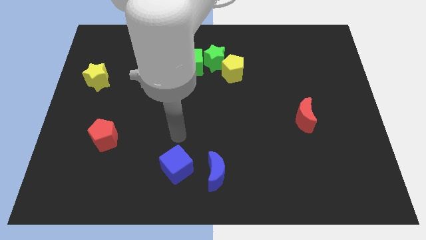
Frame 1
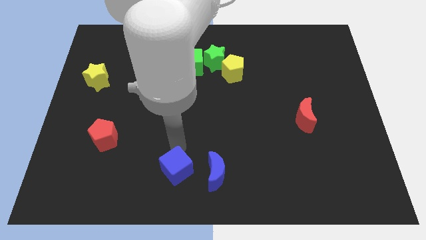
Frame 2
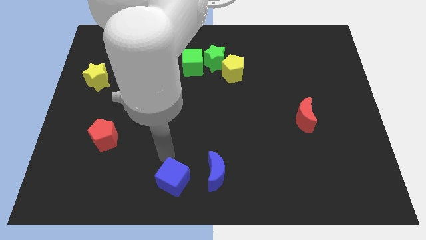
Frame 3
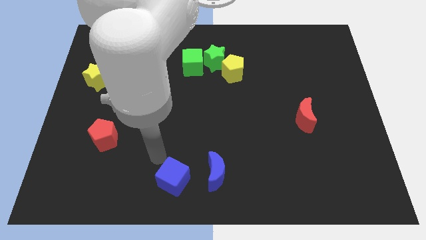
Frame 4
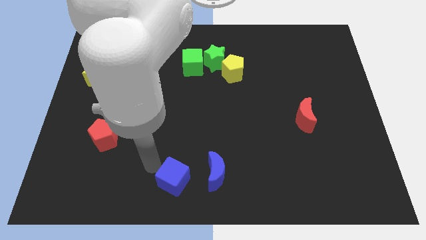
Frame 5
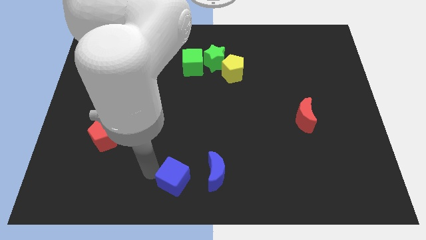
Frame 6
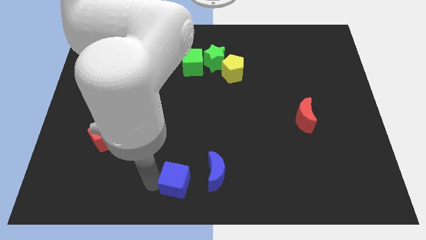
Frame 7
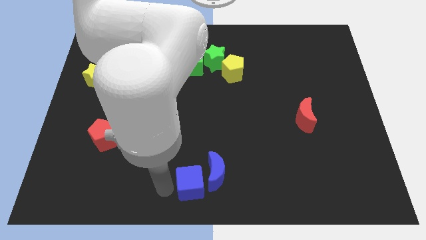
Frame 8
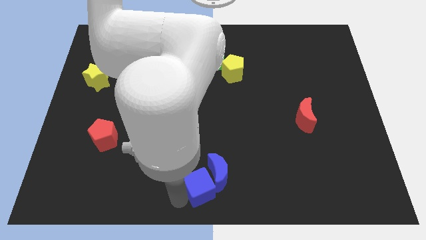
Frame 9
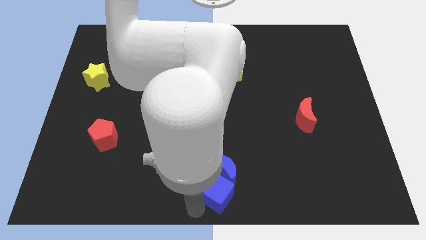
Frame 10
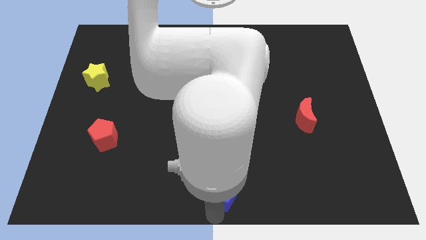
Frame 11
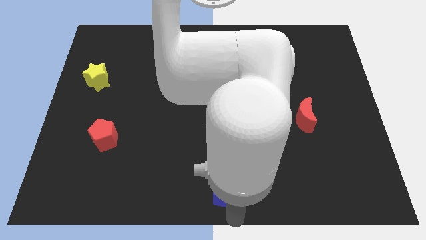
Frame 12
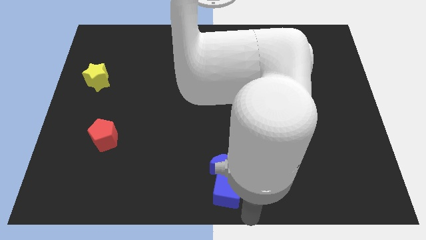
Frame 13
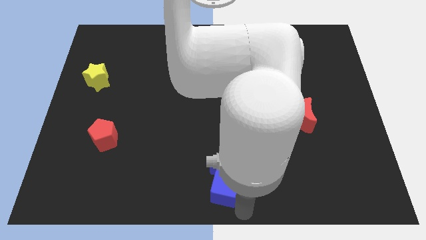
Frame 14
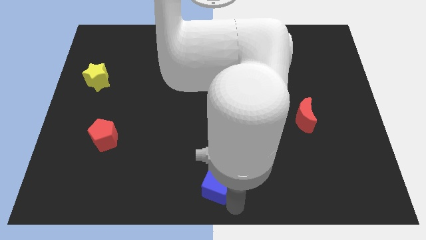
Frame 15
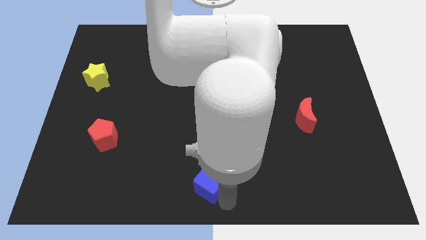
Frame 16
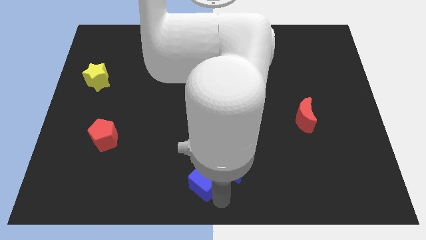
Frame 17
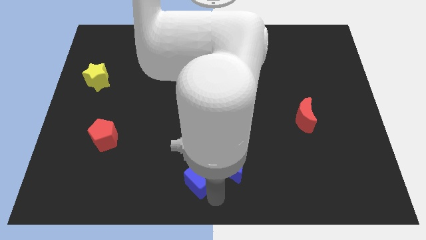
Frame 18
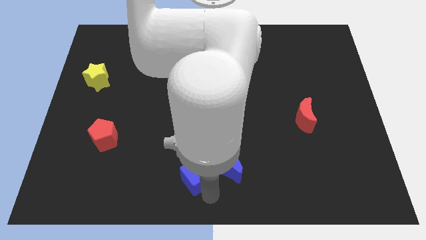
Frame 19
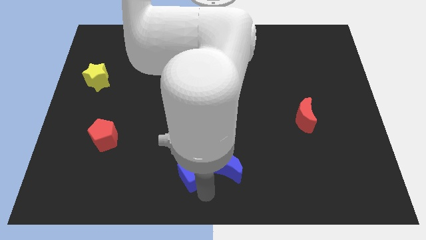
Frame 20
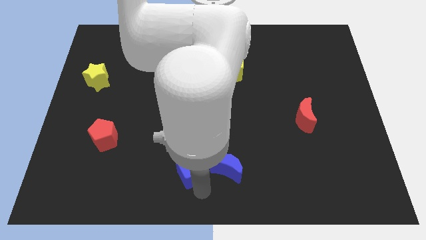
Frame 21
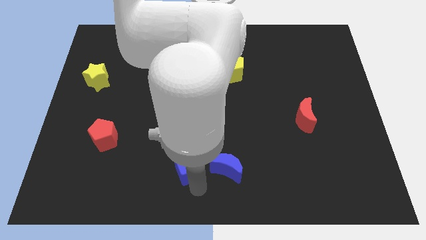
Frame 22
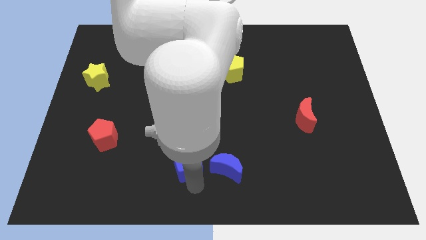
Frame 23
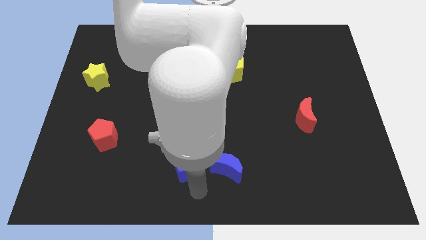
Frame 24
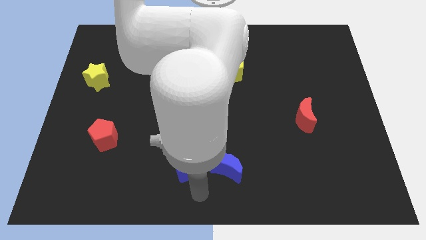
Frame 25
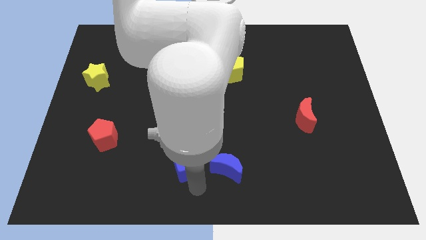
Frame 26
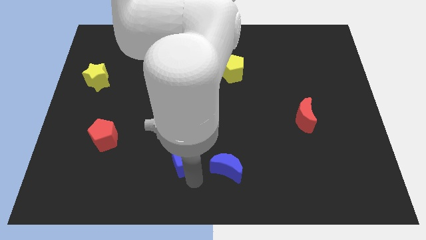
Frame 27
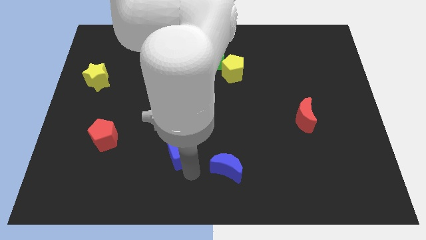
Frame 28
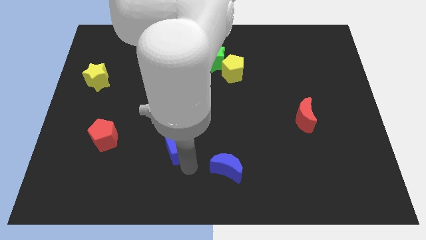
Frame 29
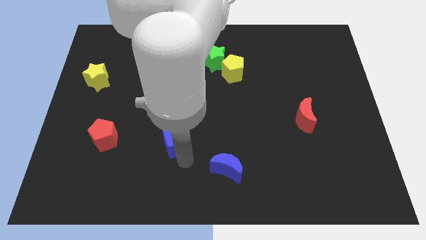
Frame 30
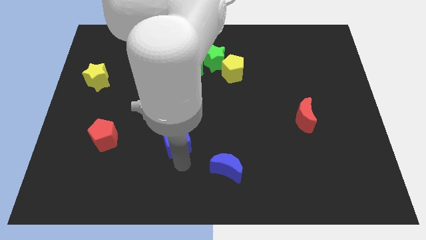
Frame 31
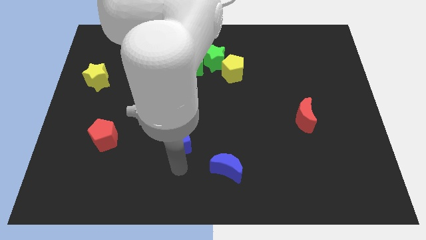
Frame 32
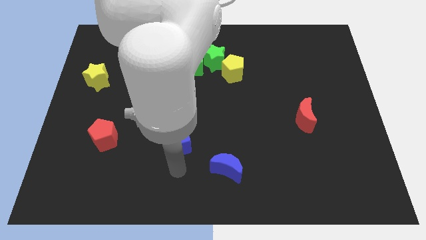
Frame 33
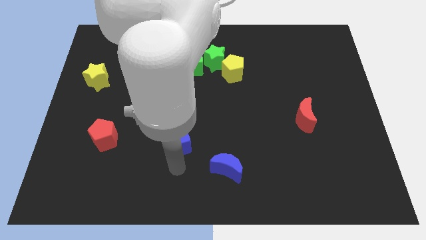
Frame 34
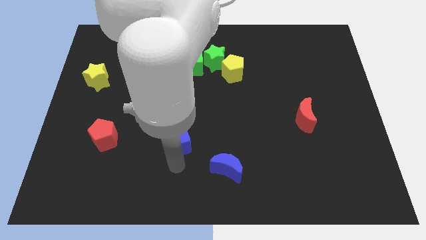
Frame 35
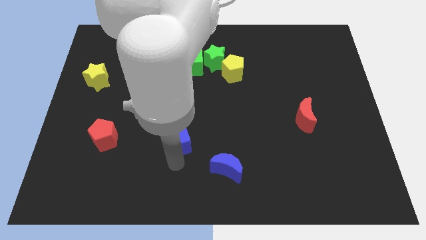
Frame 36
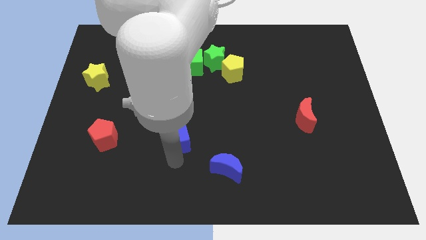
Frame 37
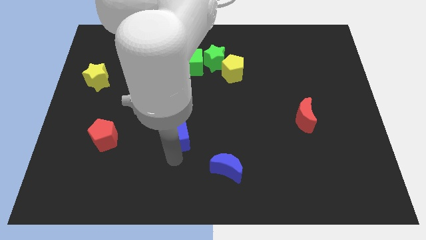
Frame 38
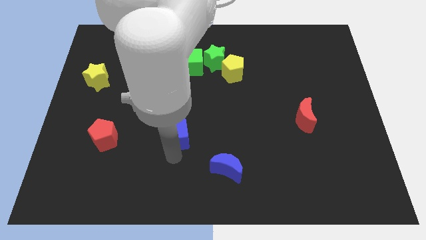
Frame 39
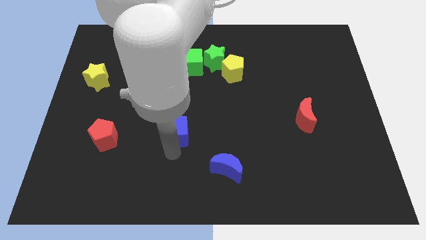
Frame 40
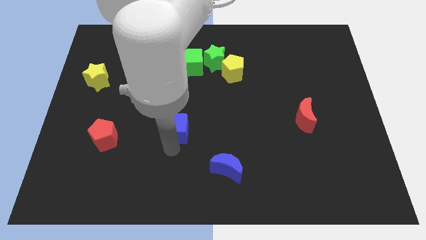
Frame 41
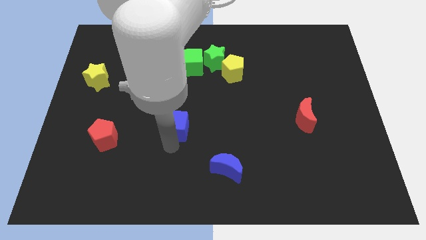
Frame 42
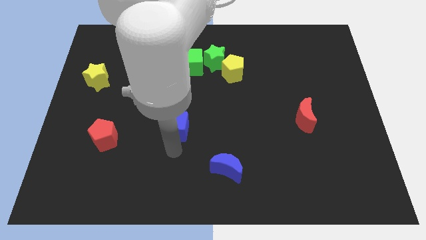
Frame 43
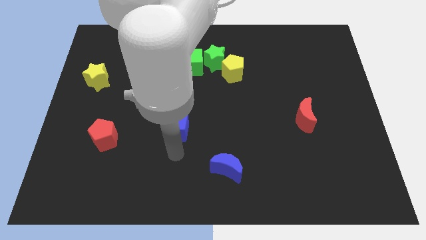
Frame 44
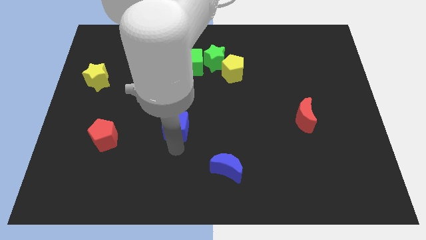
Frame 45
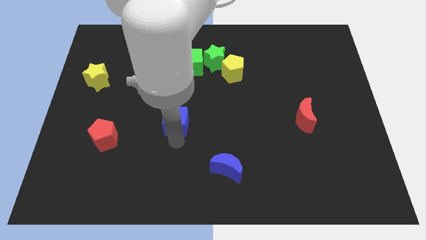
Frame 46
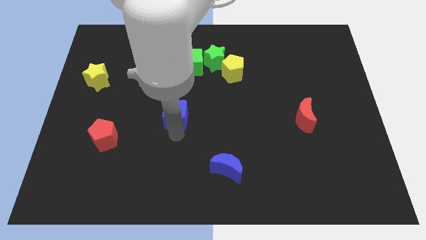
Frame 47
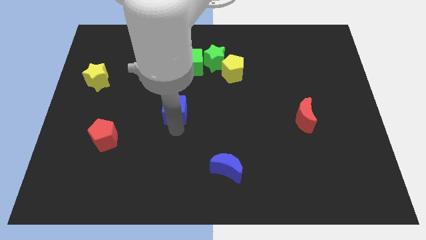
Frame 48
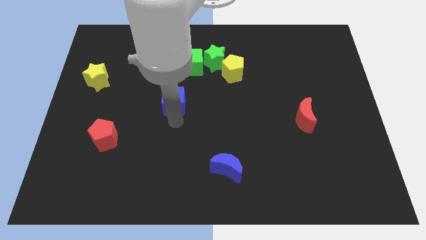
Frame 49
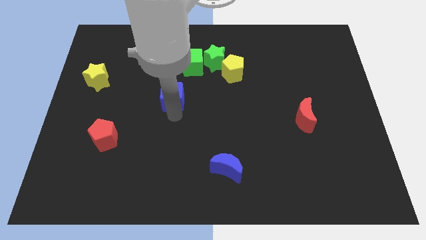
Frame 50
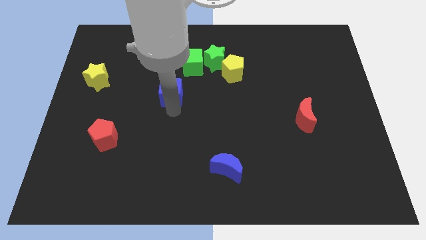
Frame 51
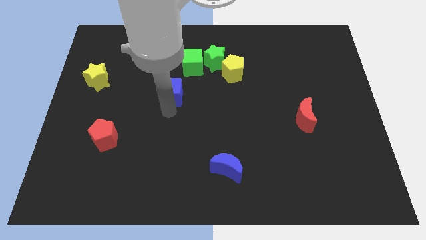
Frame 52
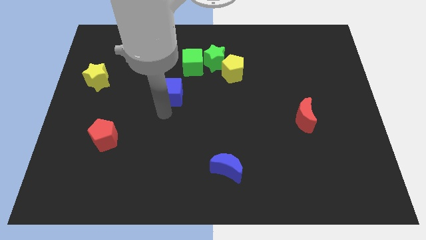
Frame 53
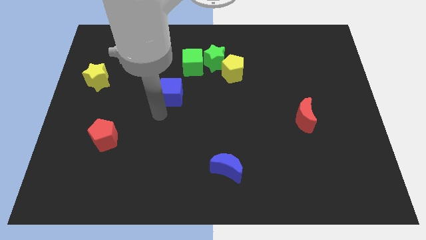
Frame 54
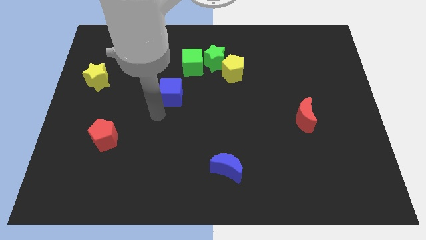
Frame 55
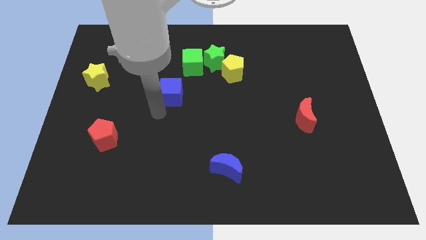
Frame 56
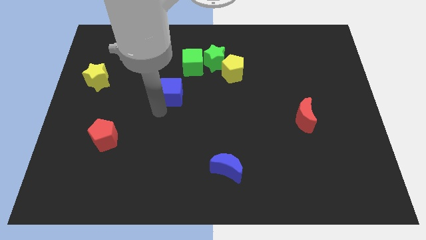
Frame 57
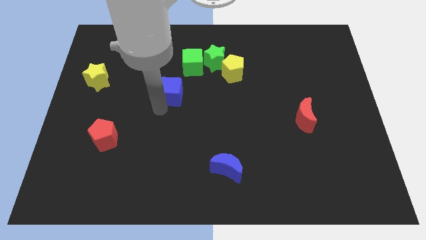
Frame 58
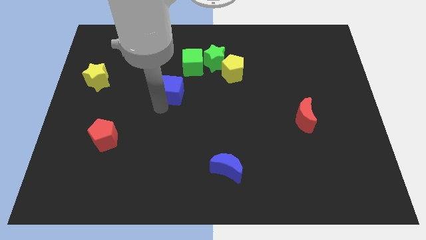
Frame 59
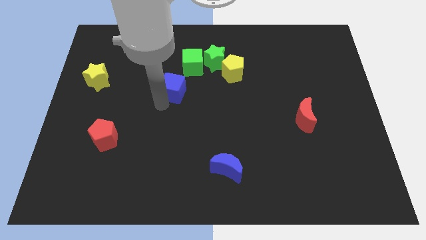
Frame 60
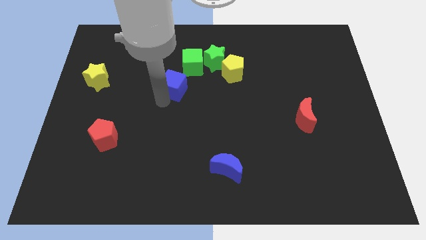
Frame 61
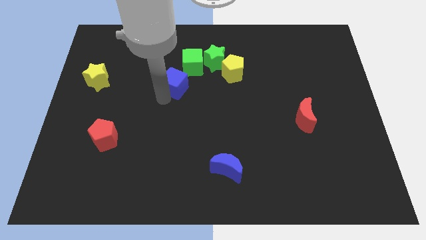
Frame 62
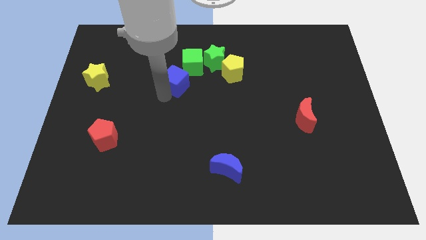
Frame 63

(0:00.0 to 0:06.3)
slide the blue cube just left of the yellow pentagon

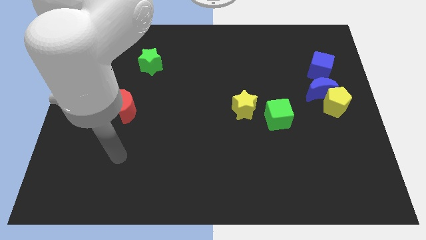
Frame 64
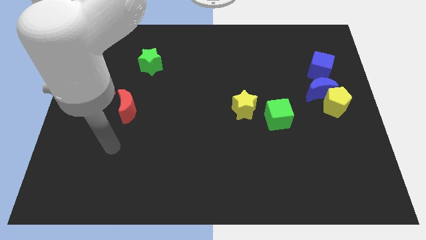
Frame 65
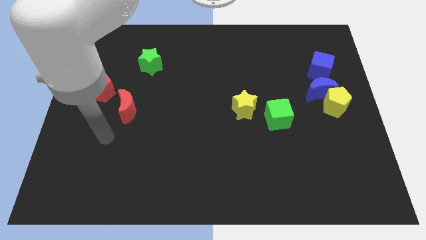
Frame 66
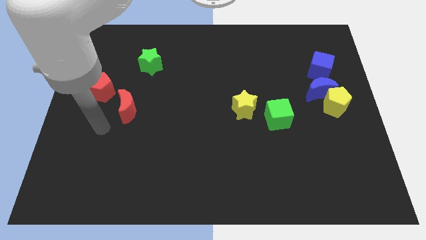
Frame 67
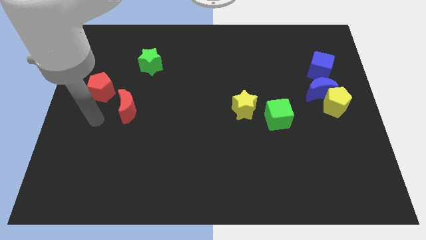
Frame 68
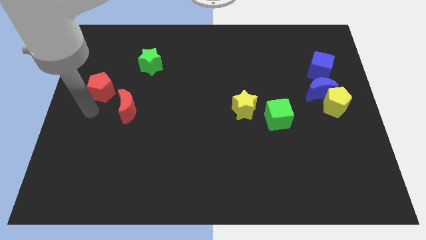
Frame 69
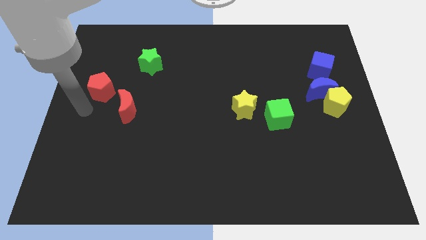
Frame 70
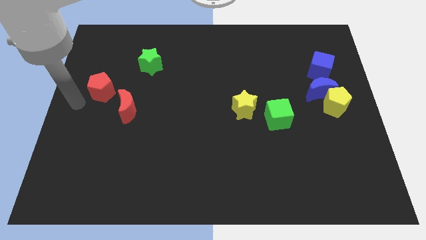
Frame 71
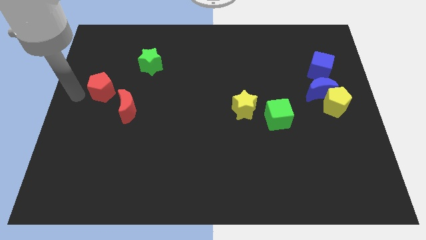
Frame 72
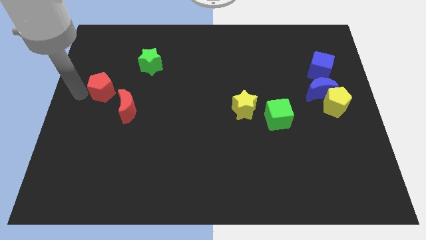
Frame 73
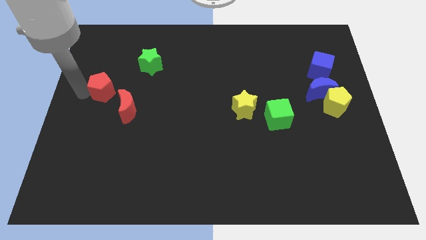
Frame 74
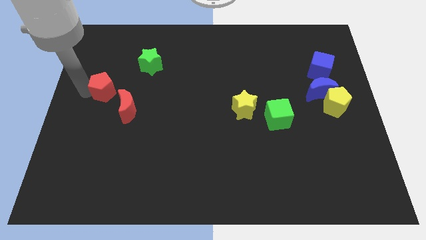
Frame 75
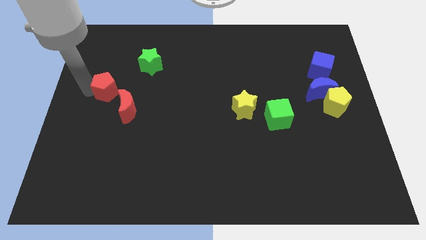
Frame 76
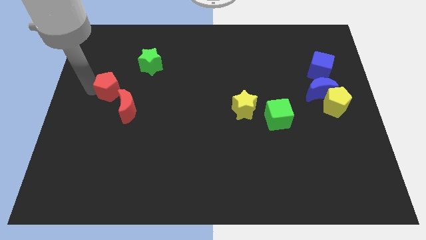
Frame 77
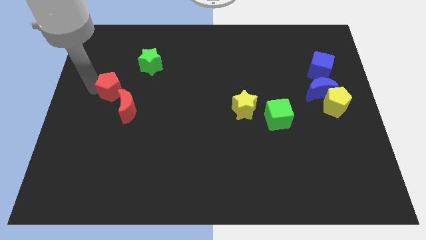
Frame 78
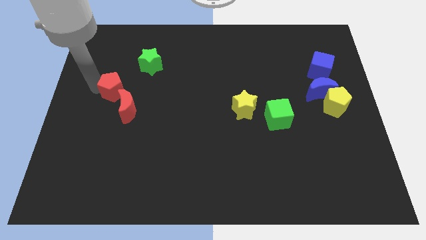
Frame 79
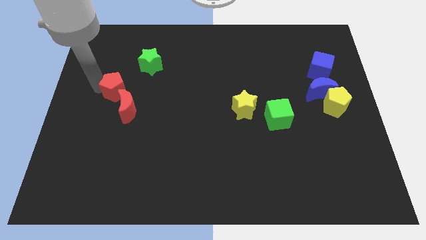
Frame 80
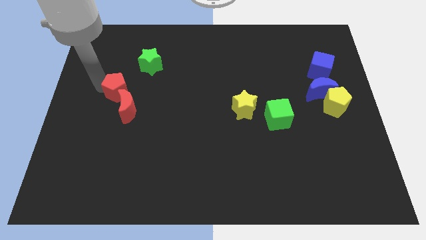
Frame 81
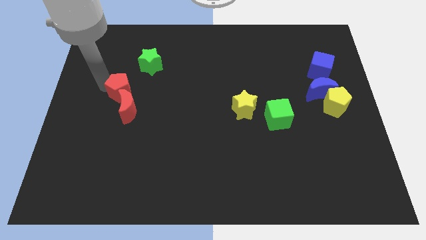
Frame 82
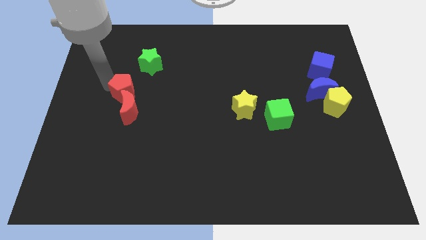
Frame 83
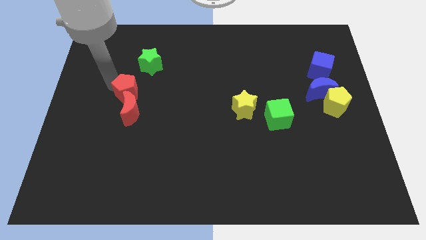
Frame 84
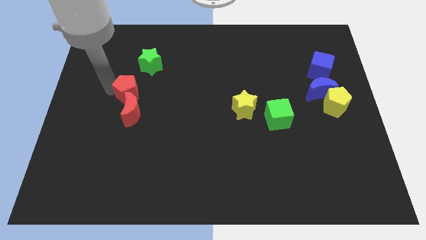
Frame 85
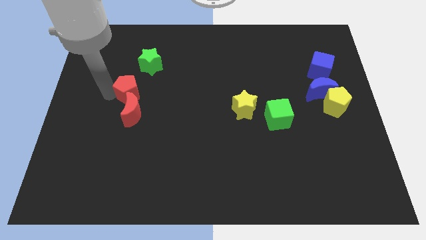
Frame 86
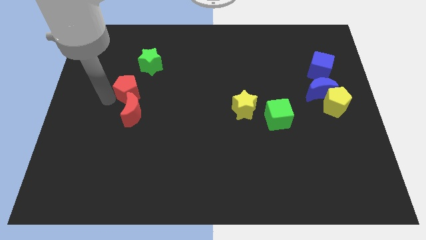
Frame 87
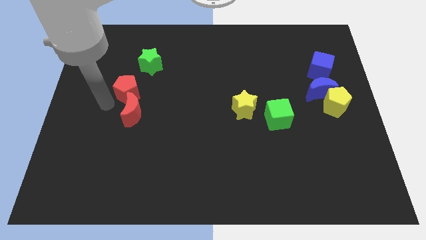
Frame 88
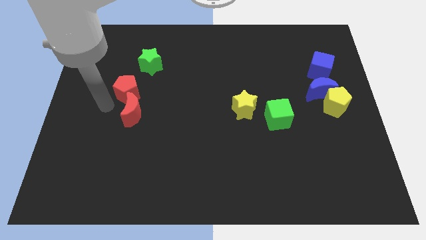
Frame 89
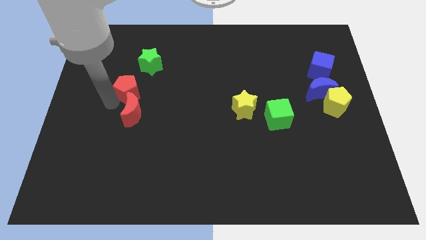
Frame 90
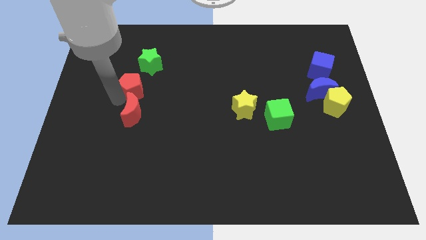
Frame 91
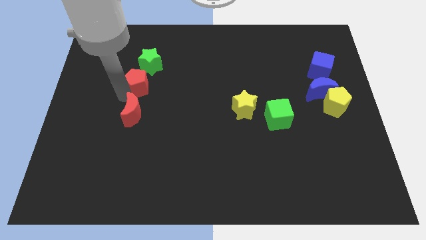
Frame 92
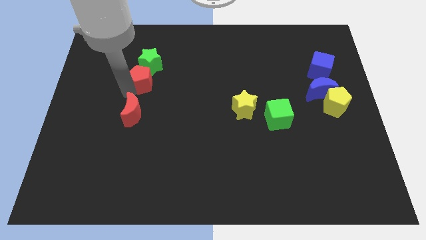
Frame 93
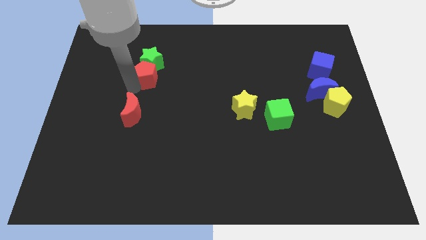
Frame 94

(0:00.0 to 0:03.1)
put the red pentagon to the bottom right of the green star
